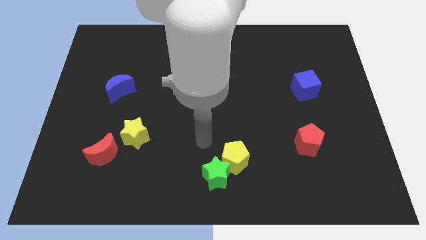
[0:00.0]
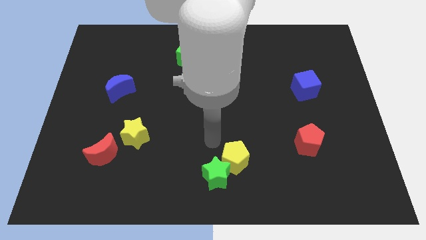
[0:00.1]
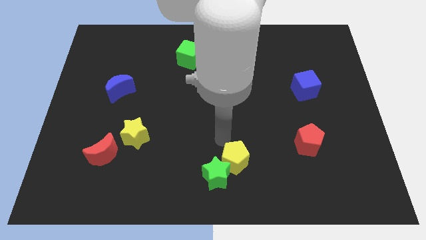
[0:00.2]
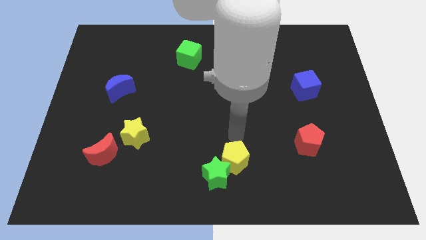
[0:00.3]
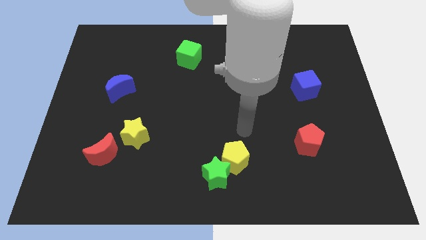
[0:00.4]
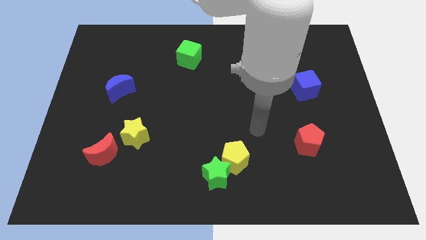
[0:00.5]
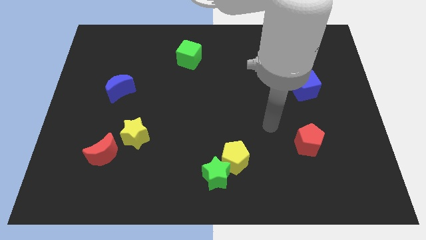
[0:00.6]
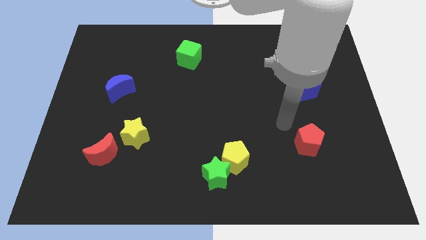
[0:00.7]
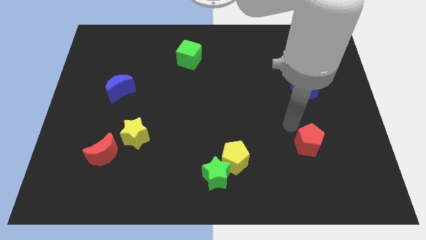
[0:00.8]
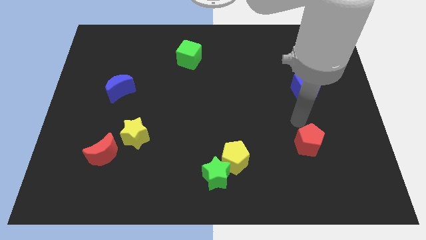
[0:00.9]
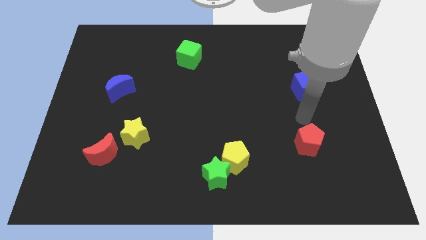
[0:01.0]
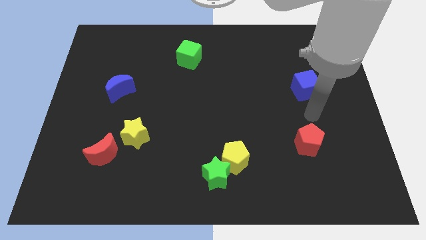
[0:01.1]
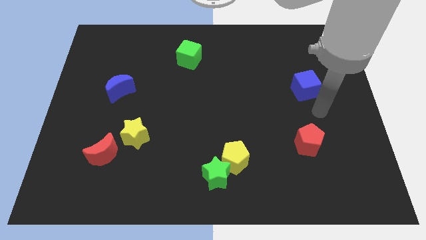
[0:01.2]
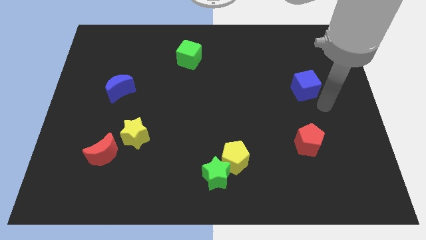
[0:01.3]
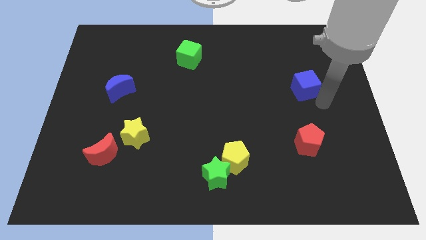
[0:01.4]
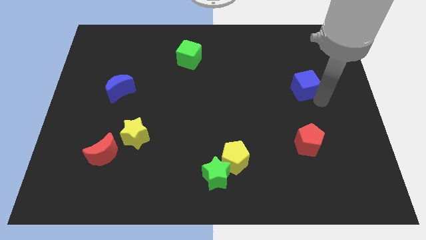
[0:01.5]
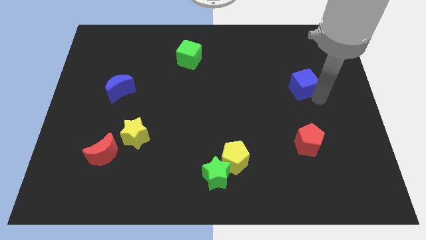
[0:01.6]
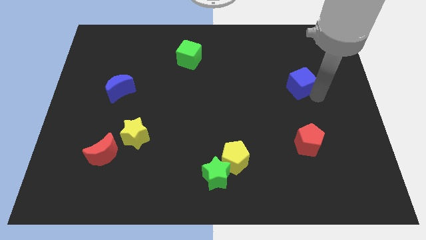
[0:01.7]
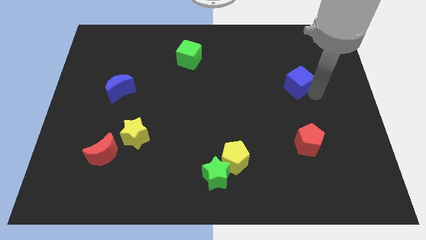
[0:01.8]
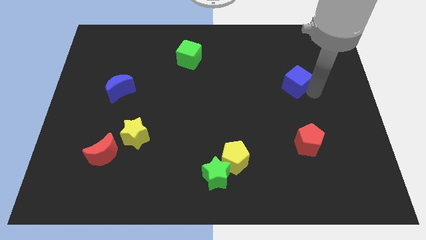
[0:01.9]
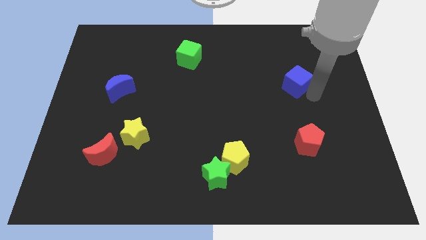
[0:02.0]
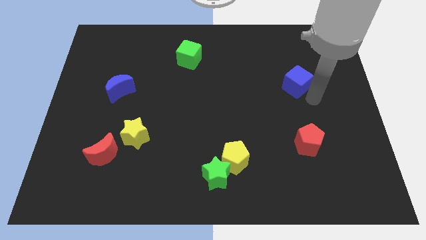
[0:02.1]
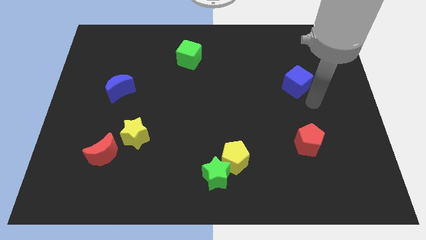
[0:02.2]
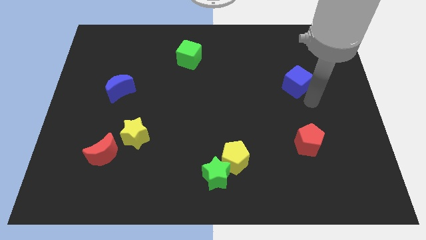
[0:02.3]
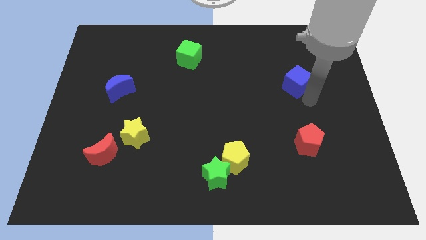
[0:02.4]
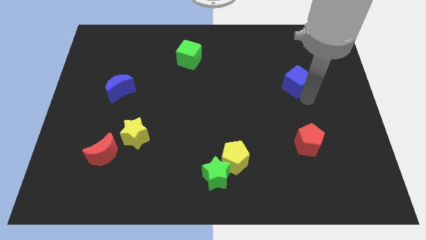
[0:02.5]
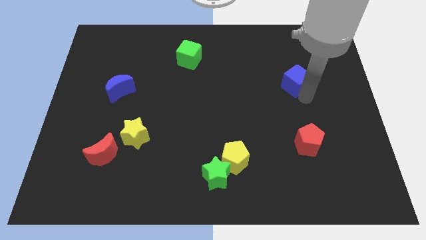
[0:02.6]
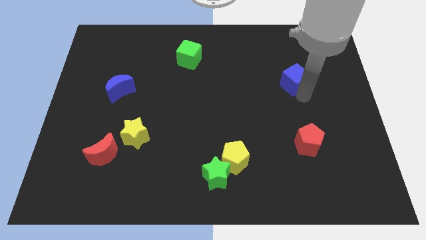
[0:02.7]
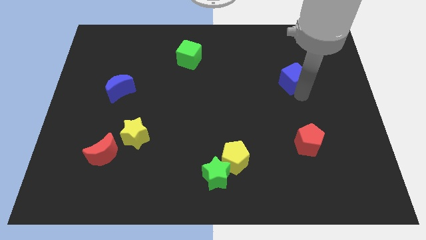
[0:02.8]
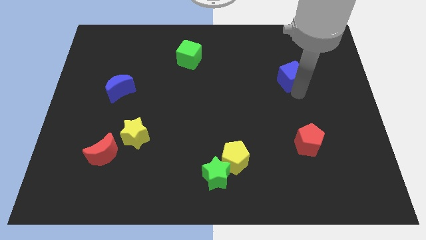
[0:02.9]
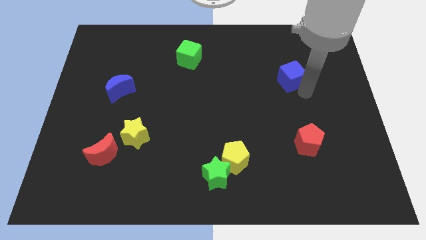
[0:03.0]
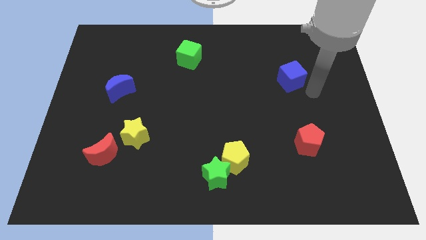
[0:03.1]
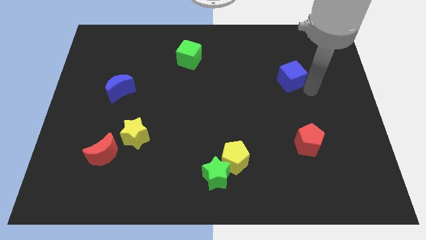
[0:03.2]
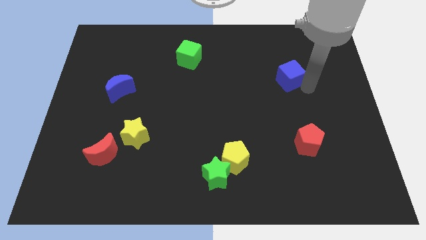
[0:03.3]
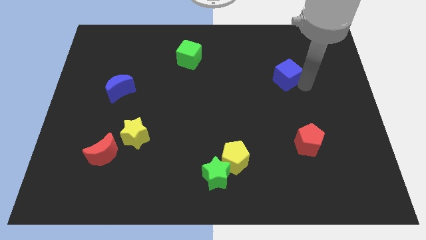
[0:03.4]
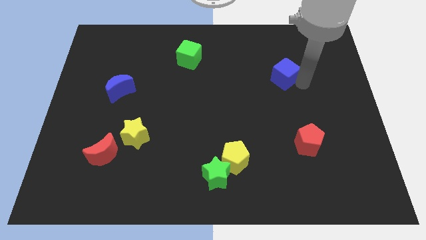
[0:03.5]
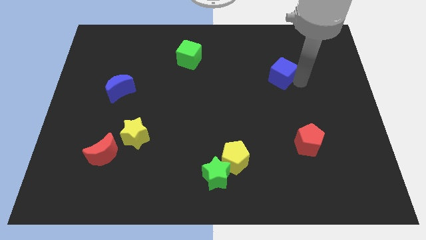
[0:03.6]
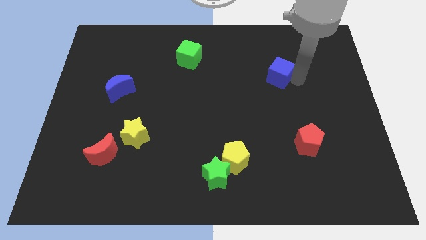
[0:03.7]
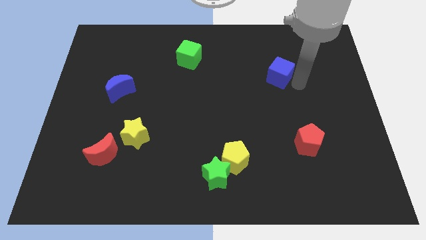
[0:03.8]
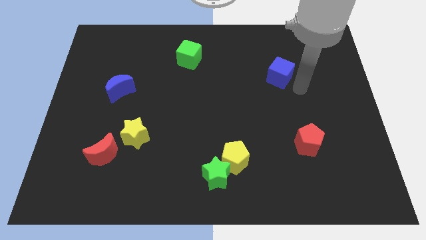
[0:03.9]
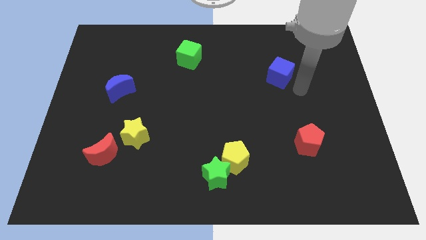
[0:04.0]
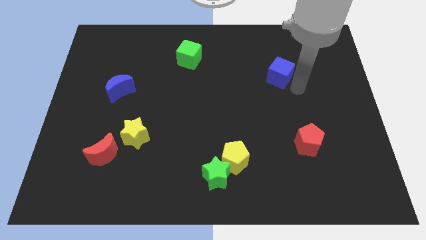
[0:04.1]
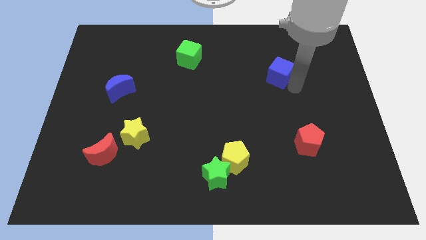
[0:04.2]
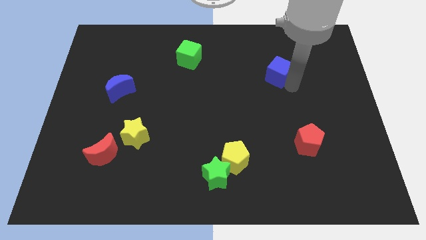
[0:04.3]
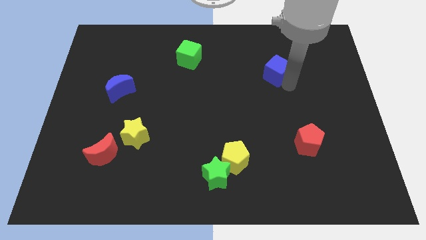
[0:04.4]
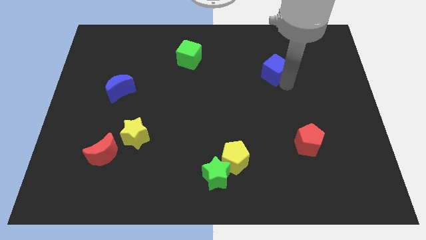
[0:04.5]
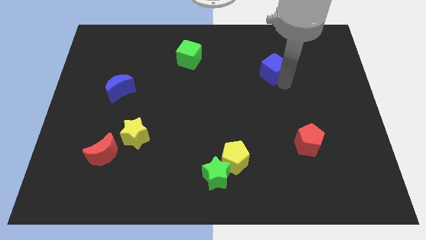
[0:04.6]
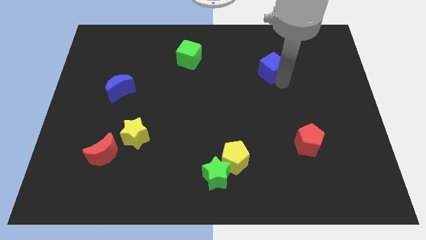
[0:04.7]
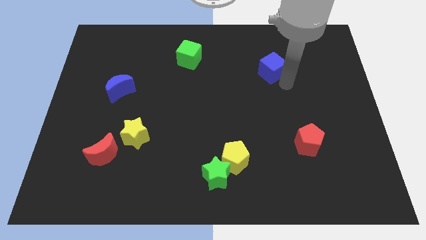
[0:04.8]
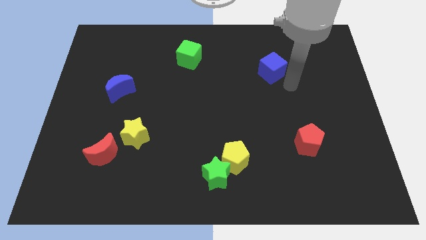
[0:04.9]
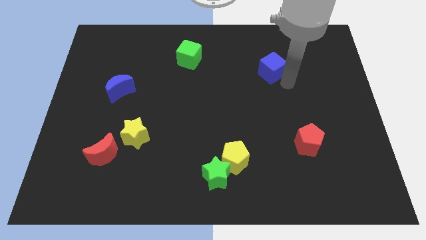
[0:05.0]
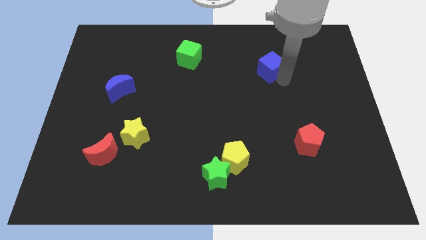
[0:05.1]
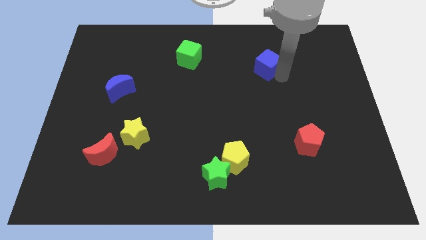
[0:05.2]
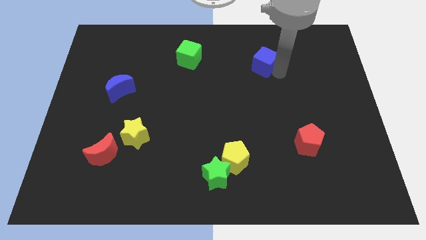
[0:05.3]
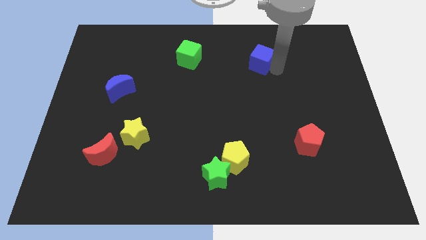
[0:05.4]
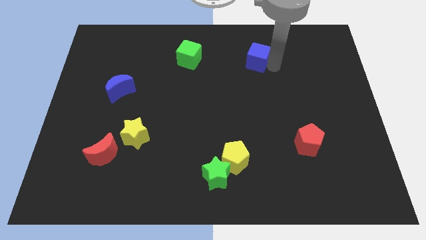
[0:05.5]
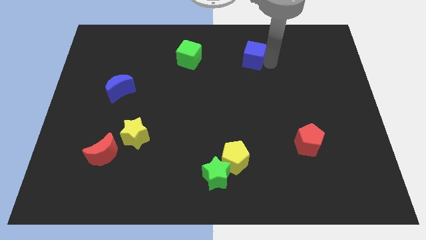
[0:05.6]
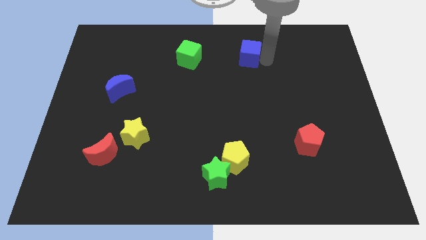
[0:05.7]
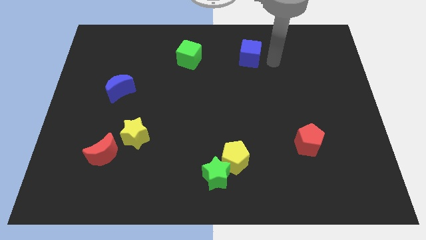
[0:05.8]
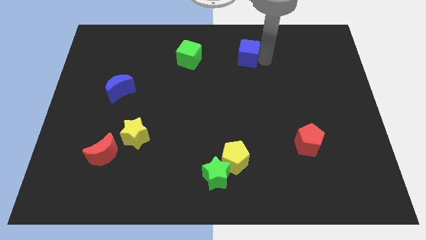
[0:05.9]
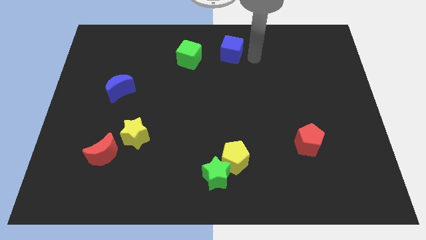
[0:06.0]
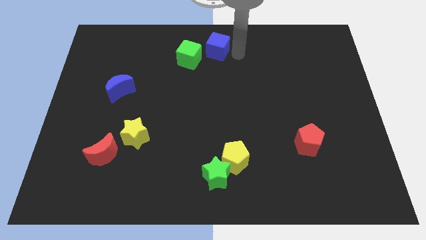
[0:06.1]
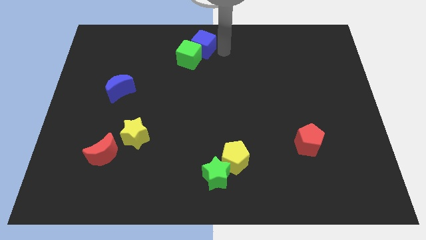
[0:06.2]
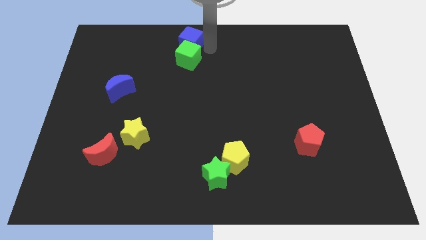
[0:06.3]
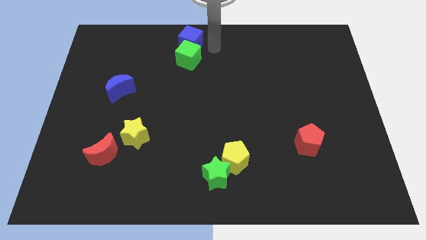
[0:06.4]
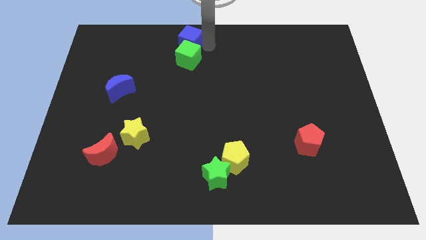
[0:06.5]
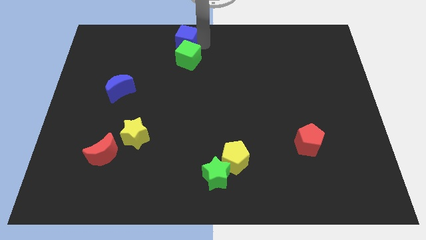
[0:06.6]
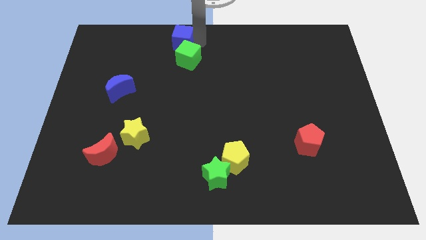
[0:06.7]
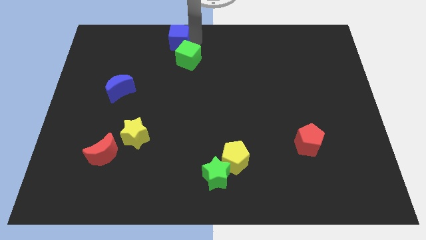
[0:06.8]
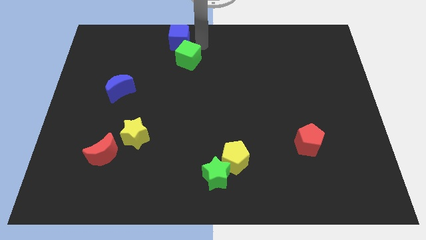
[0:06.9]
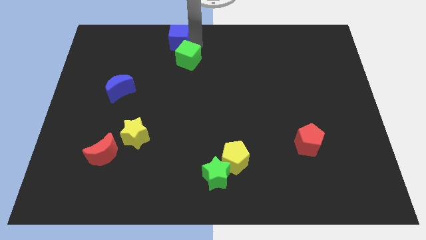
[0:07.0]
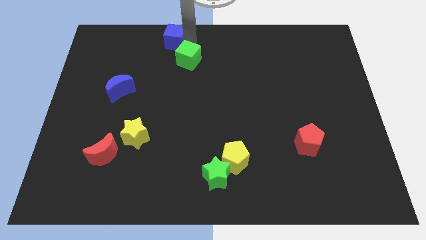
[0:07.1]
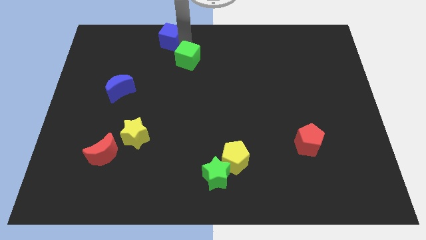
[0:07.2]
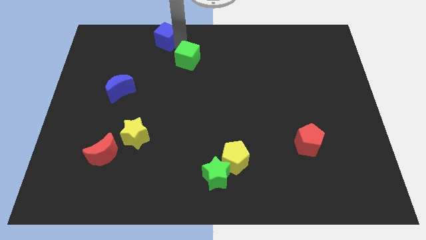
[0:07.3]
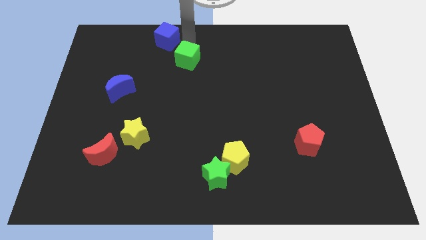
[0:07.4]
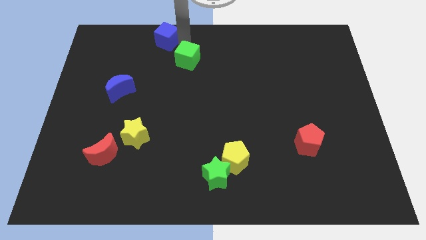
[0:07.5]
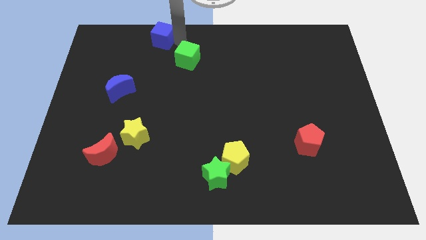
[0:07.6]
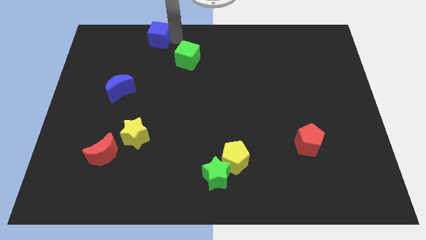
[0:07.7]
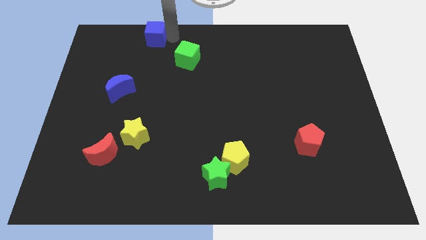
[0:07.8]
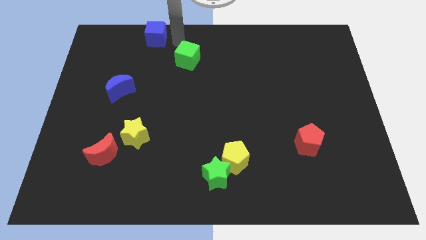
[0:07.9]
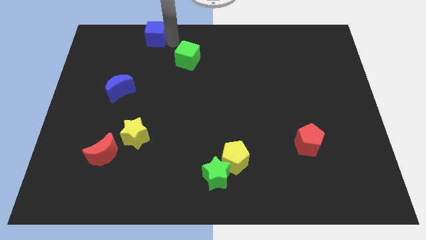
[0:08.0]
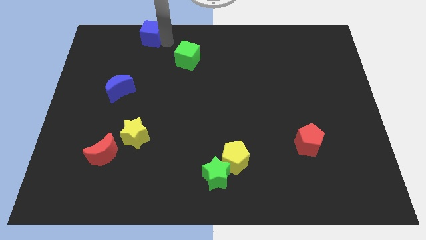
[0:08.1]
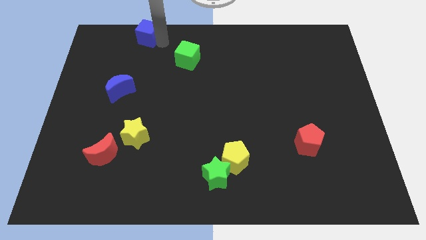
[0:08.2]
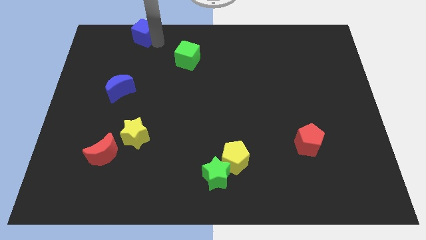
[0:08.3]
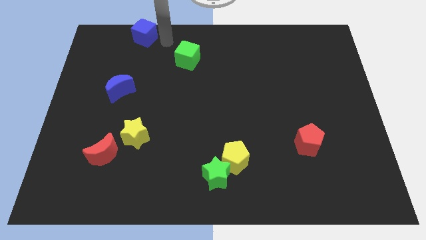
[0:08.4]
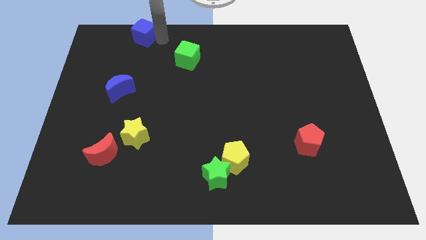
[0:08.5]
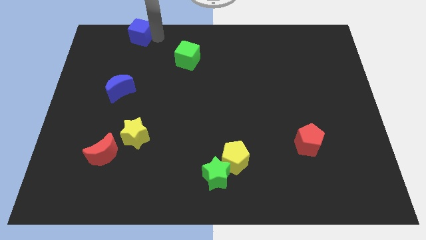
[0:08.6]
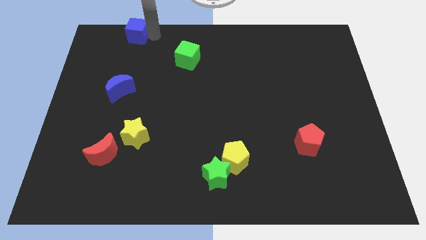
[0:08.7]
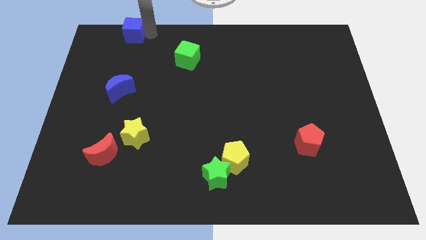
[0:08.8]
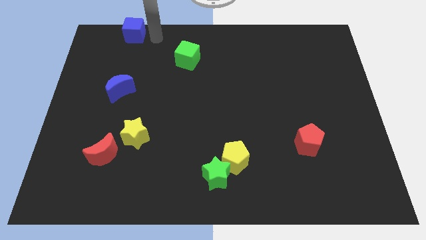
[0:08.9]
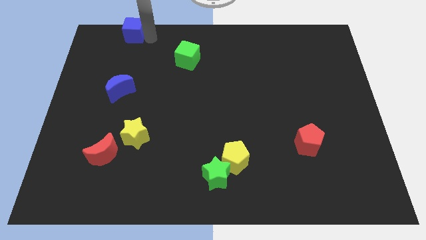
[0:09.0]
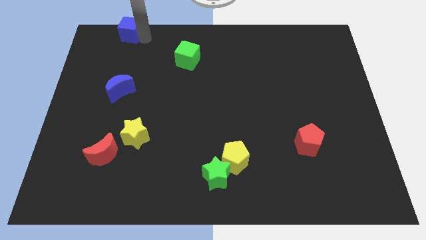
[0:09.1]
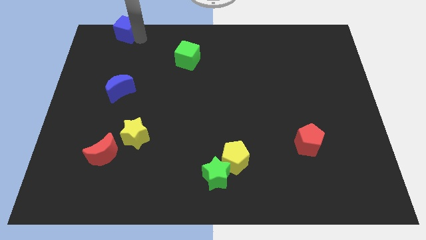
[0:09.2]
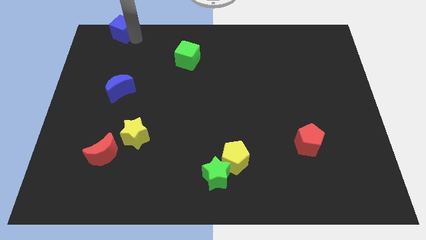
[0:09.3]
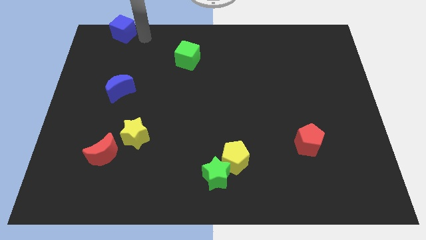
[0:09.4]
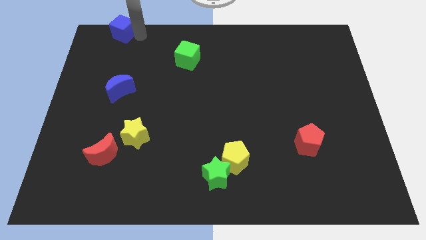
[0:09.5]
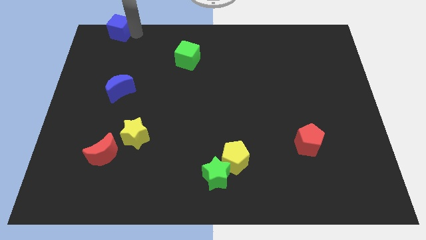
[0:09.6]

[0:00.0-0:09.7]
slide the blue cube to the top left corner
